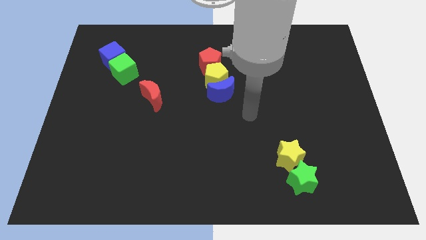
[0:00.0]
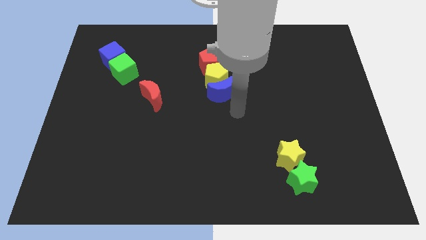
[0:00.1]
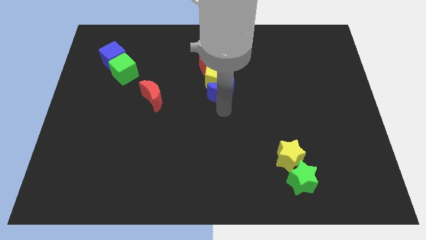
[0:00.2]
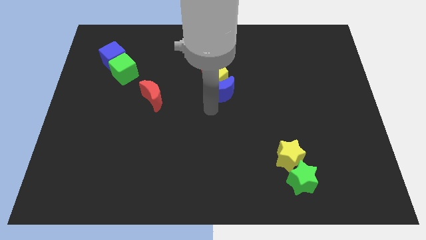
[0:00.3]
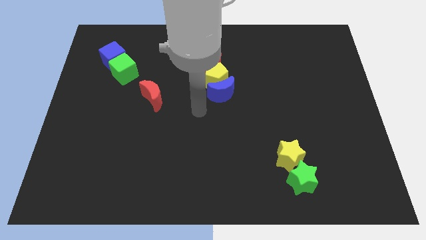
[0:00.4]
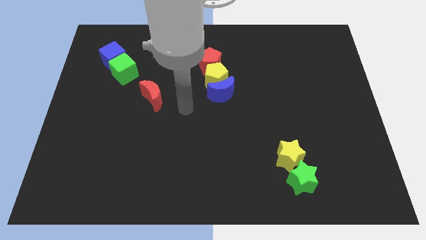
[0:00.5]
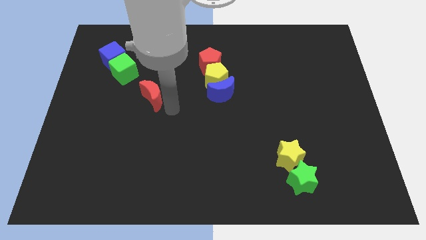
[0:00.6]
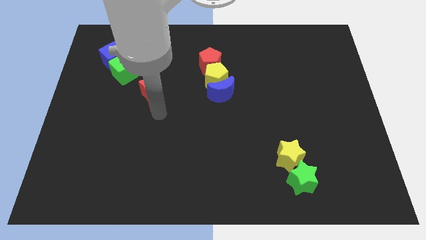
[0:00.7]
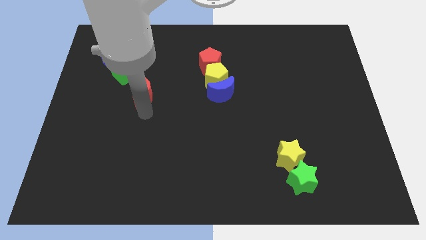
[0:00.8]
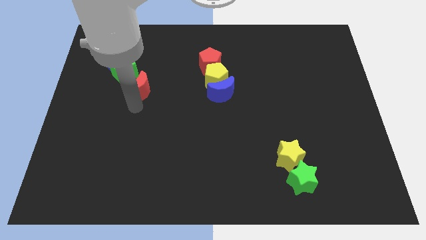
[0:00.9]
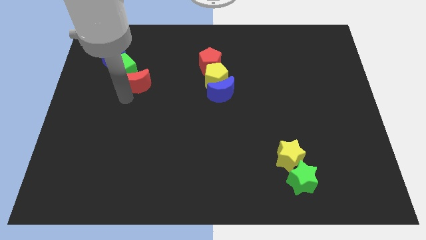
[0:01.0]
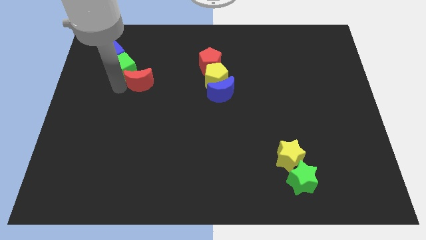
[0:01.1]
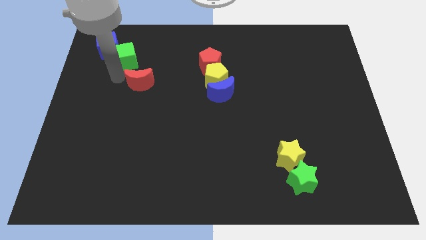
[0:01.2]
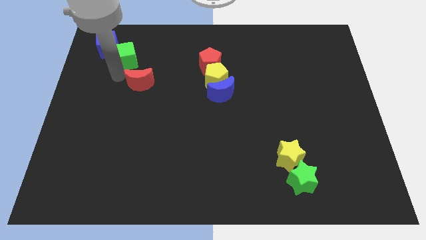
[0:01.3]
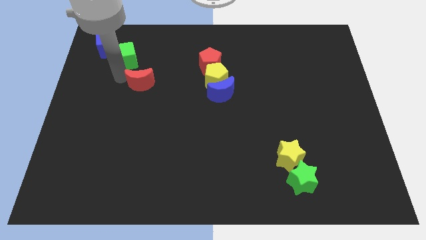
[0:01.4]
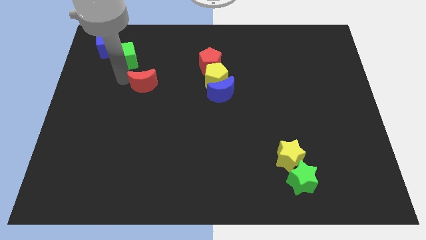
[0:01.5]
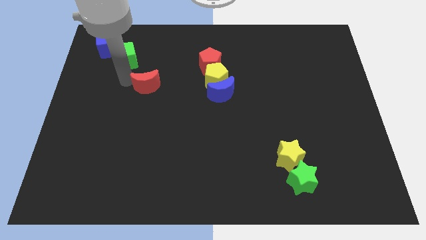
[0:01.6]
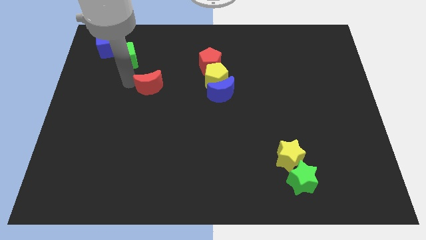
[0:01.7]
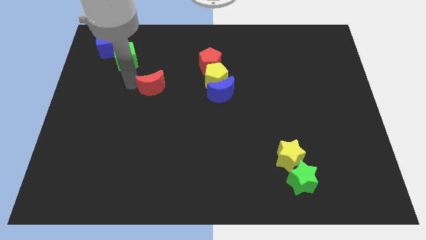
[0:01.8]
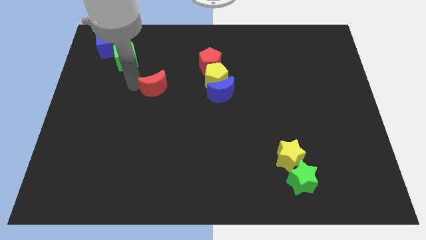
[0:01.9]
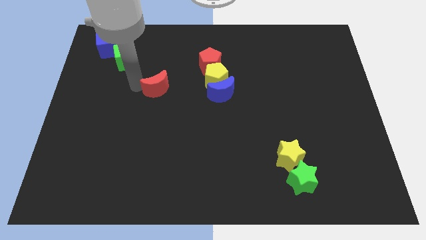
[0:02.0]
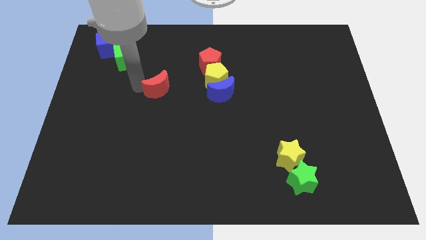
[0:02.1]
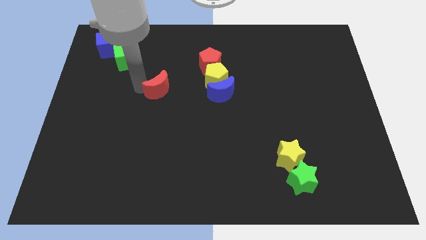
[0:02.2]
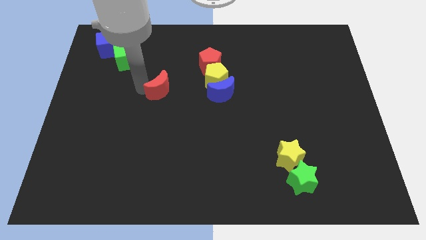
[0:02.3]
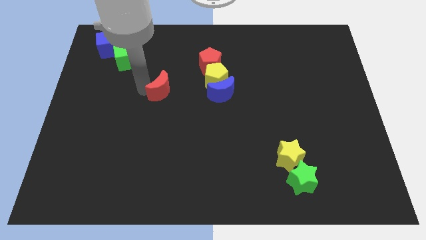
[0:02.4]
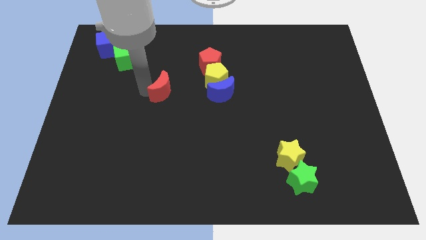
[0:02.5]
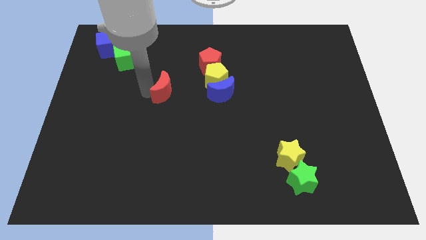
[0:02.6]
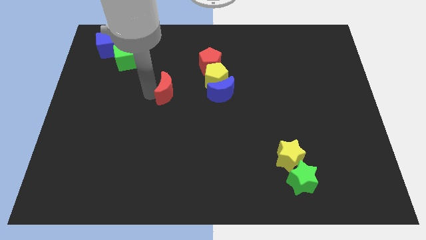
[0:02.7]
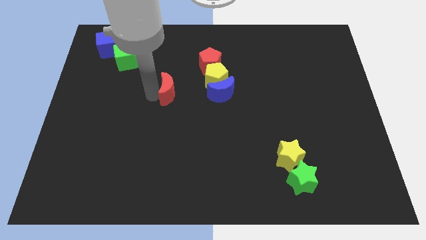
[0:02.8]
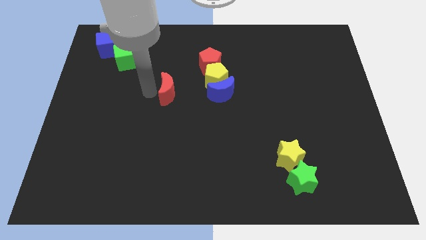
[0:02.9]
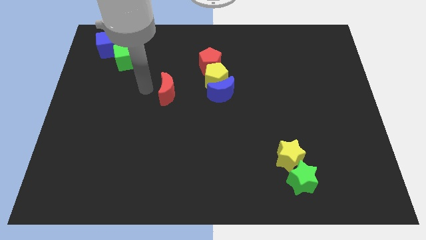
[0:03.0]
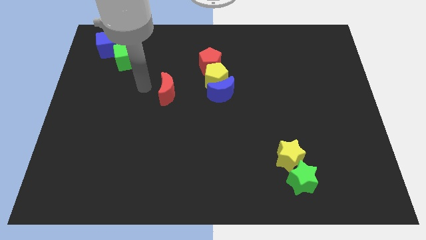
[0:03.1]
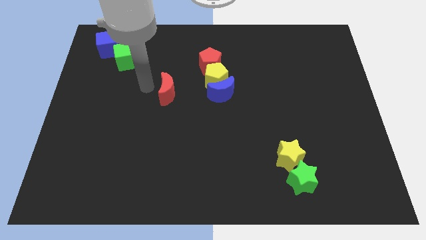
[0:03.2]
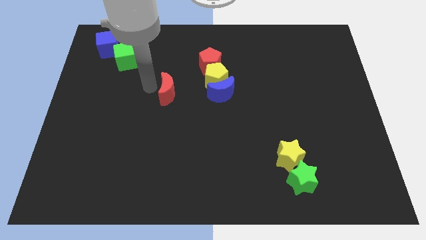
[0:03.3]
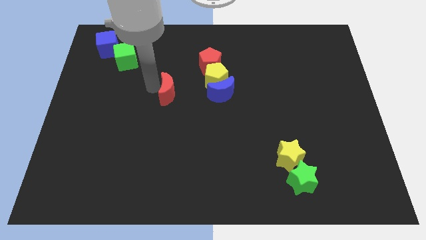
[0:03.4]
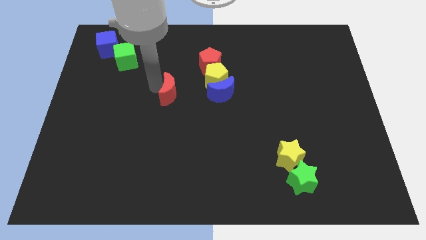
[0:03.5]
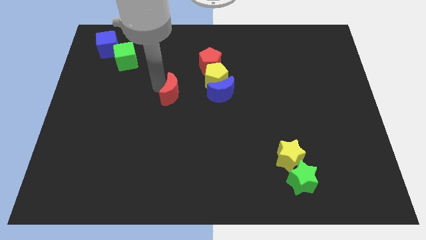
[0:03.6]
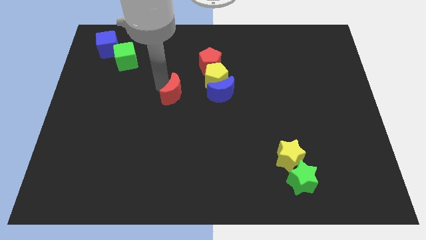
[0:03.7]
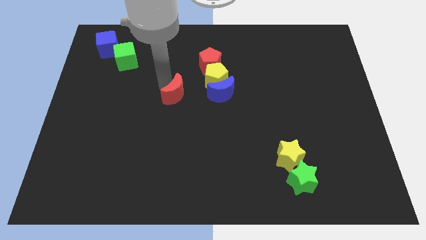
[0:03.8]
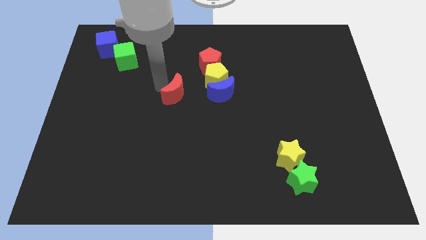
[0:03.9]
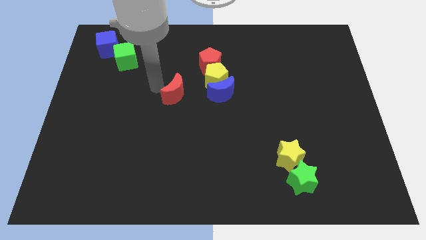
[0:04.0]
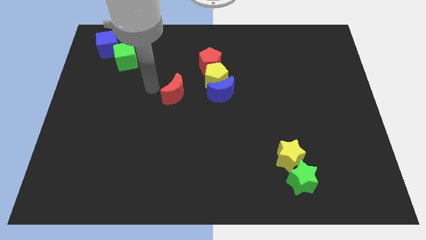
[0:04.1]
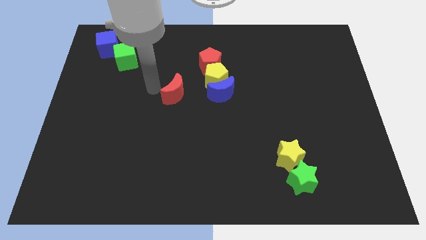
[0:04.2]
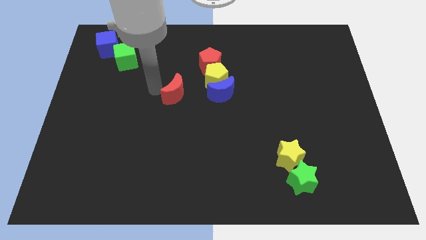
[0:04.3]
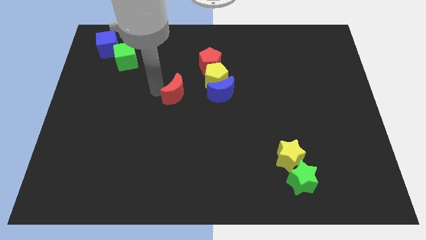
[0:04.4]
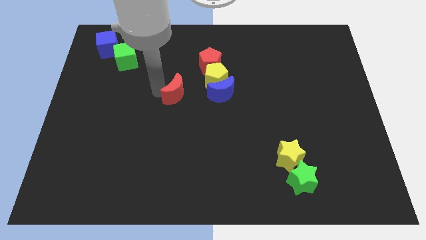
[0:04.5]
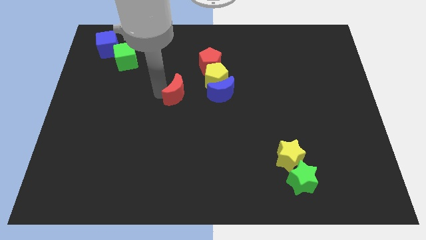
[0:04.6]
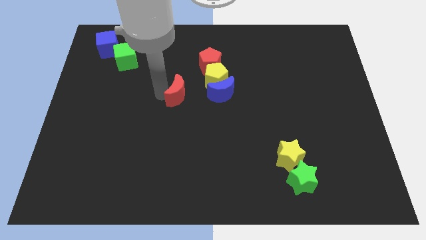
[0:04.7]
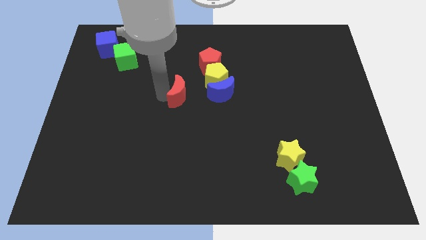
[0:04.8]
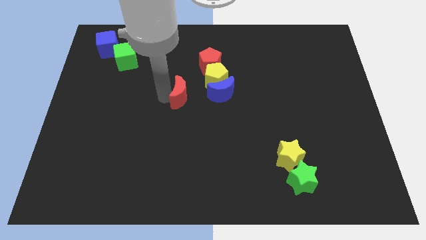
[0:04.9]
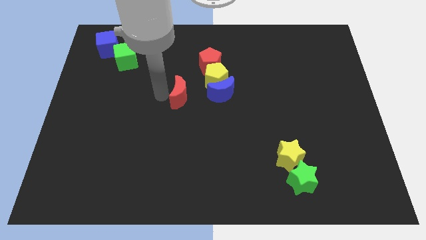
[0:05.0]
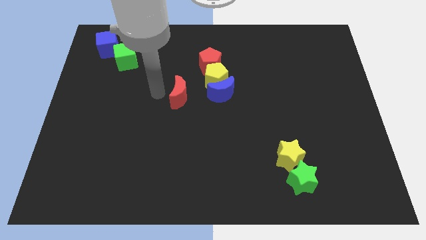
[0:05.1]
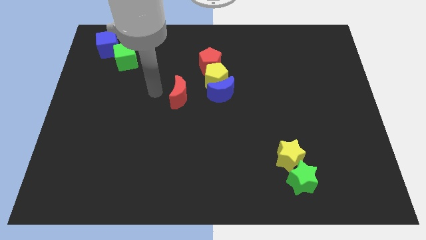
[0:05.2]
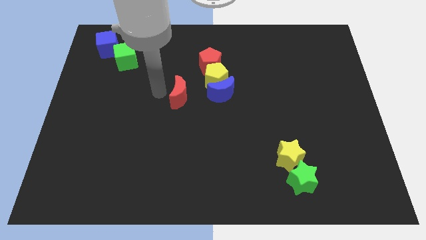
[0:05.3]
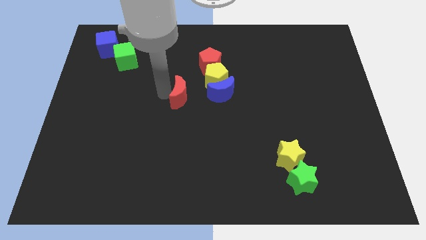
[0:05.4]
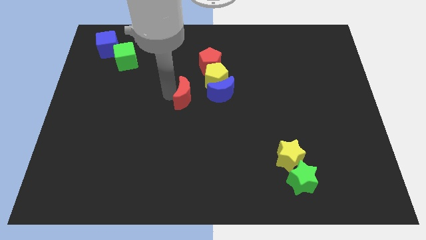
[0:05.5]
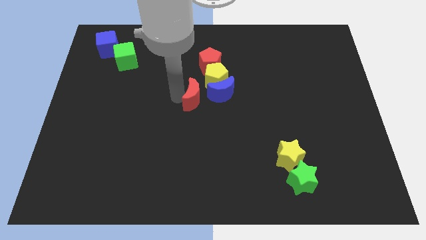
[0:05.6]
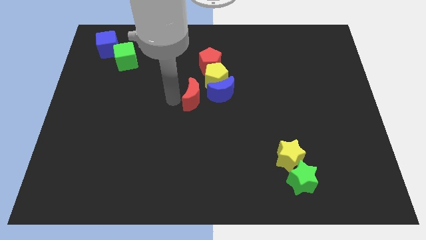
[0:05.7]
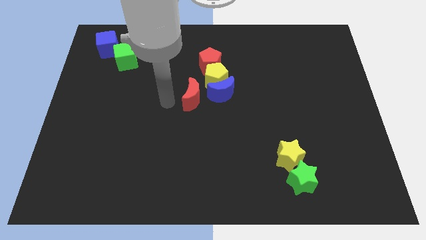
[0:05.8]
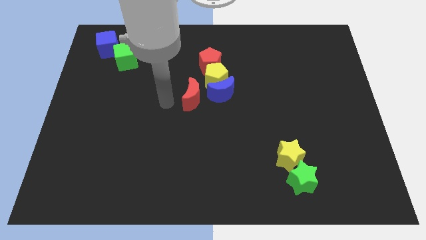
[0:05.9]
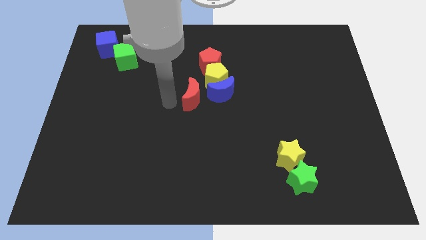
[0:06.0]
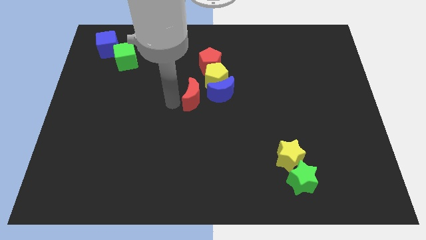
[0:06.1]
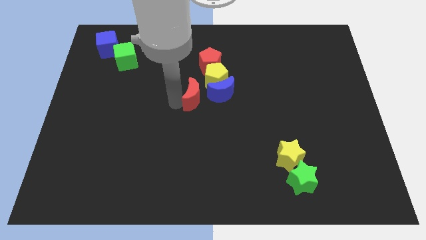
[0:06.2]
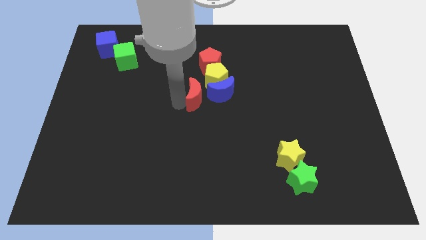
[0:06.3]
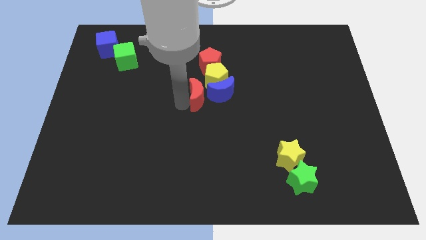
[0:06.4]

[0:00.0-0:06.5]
slide the red moon close to the blue moon

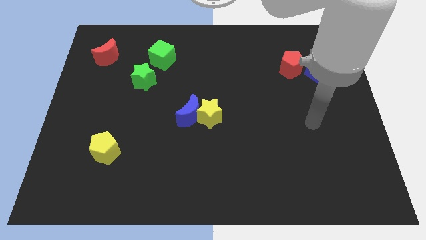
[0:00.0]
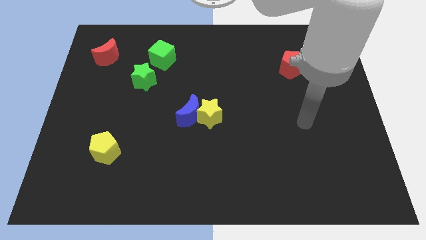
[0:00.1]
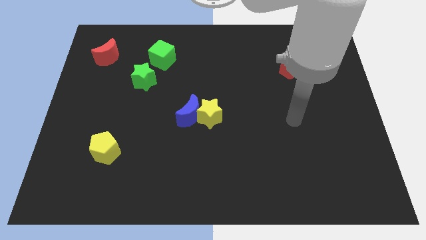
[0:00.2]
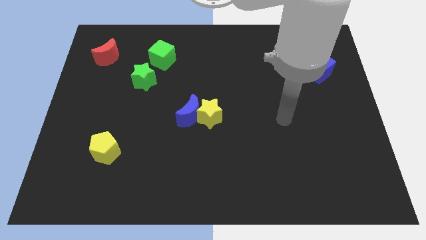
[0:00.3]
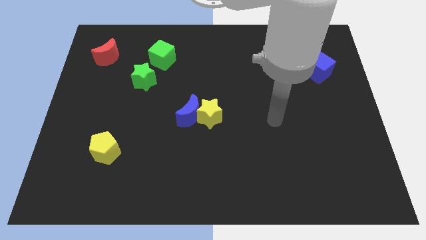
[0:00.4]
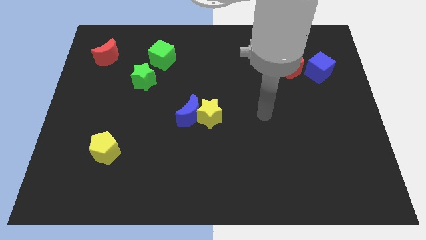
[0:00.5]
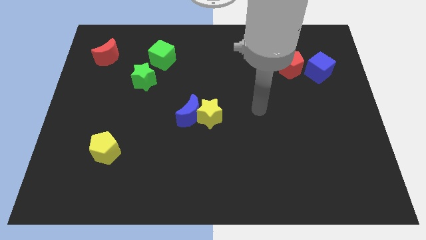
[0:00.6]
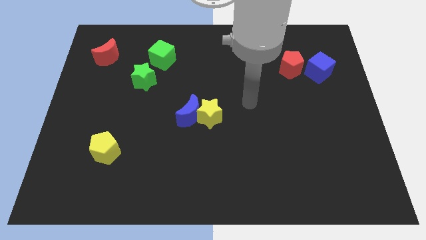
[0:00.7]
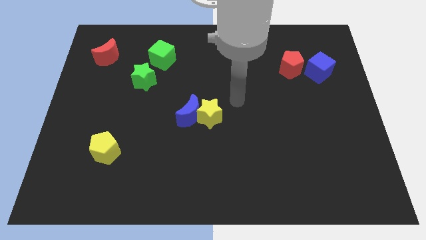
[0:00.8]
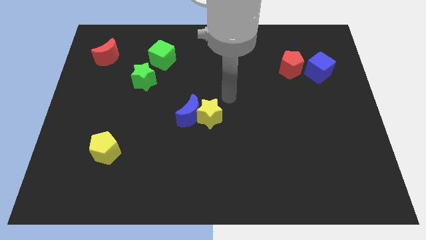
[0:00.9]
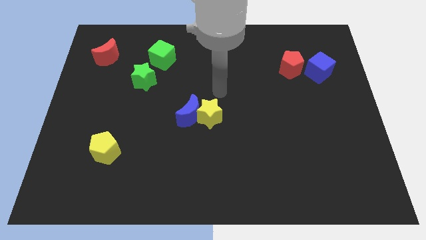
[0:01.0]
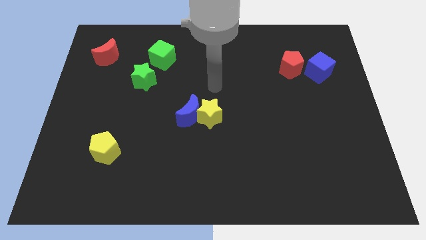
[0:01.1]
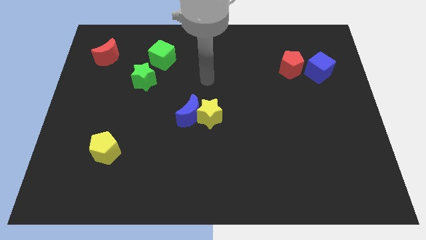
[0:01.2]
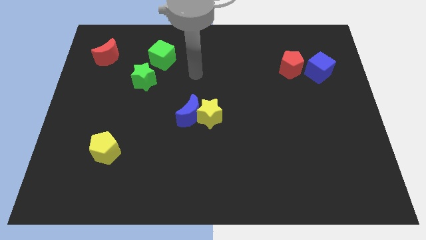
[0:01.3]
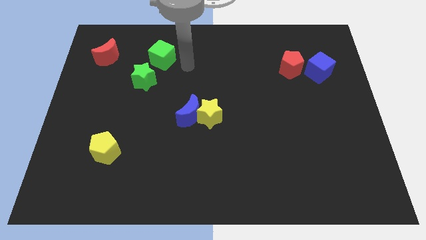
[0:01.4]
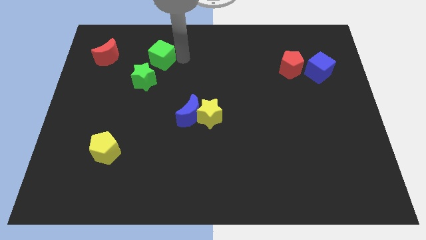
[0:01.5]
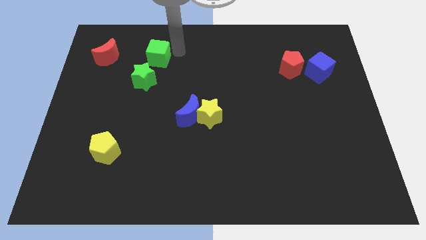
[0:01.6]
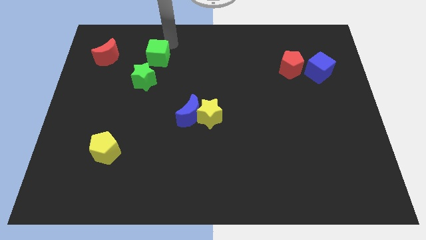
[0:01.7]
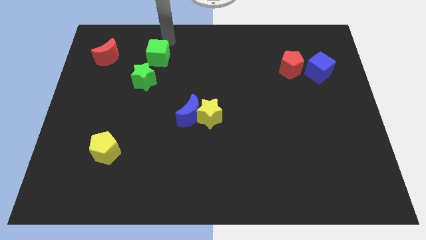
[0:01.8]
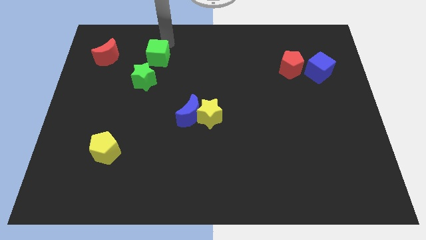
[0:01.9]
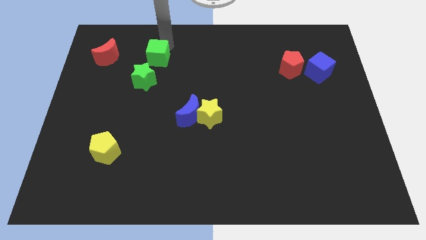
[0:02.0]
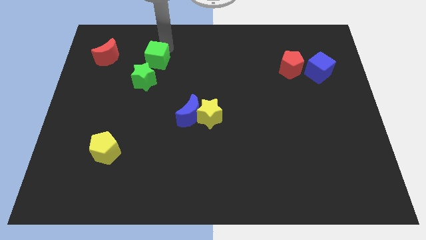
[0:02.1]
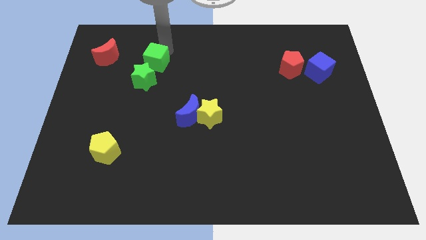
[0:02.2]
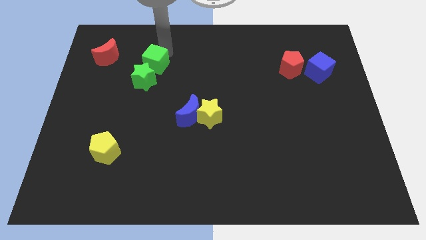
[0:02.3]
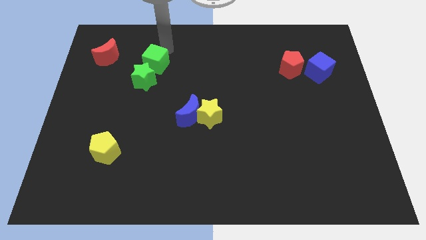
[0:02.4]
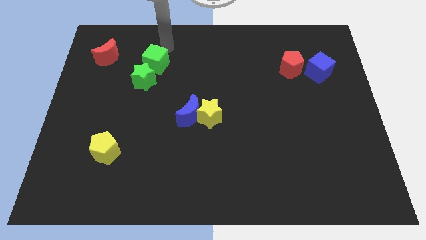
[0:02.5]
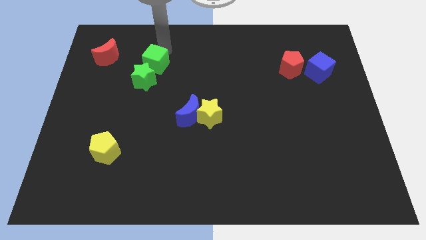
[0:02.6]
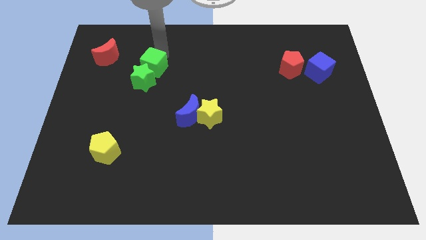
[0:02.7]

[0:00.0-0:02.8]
push the green cube close to the green star
